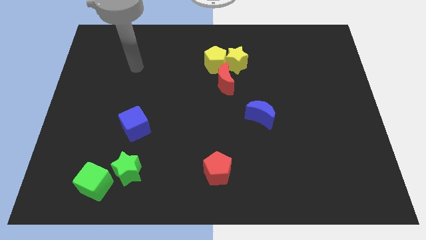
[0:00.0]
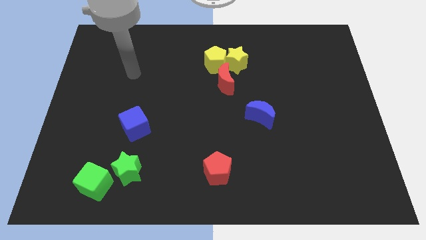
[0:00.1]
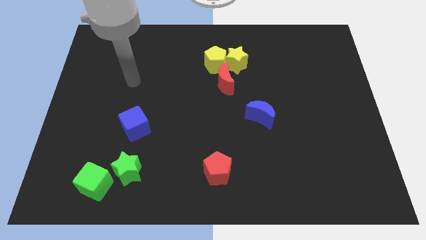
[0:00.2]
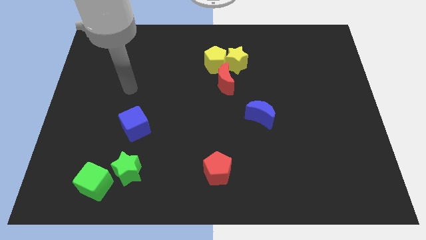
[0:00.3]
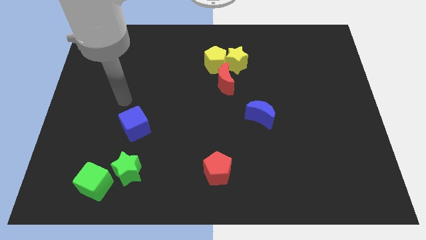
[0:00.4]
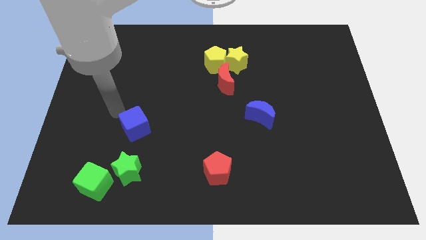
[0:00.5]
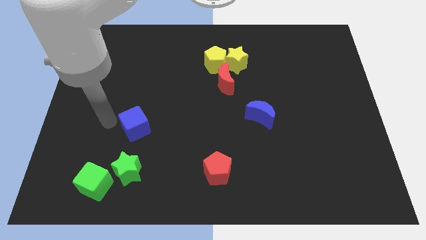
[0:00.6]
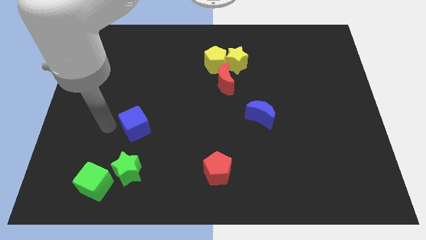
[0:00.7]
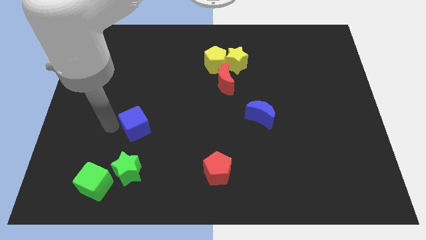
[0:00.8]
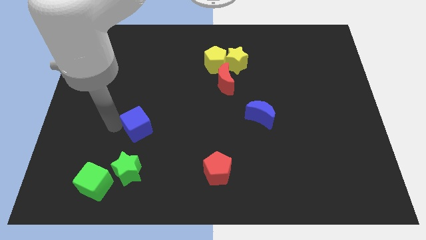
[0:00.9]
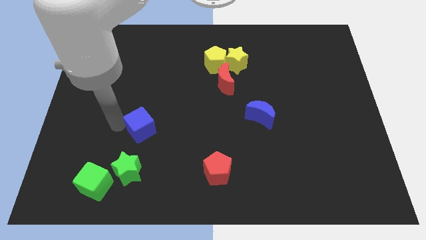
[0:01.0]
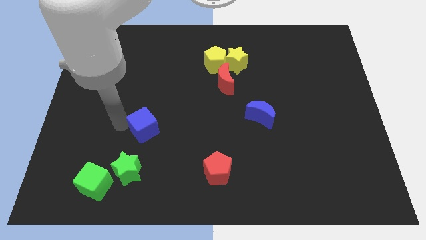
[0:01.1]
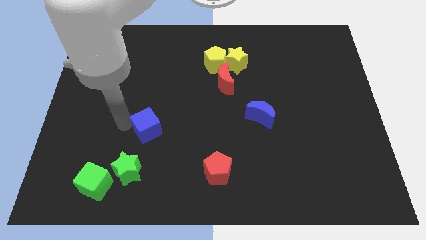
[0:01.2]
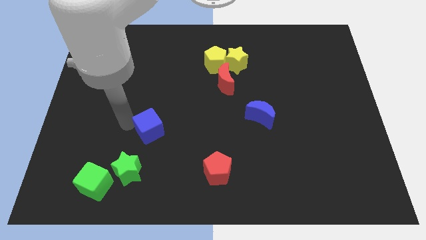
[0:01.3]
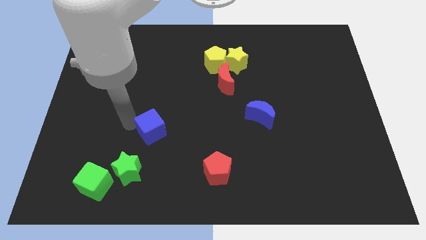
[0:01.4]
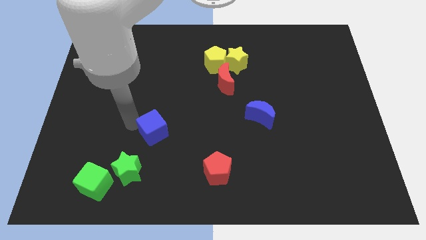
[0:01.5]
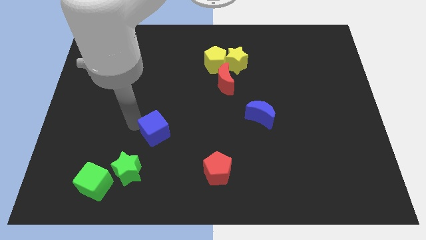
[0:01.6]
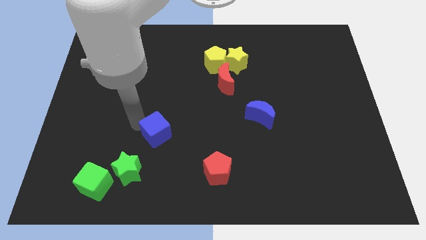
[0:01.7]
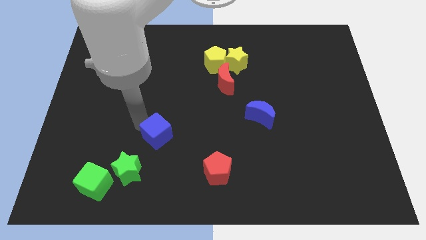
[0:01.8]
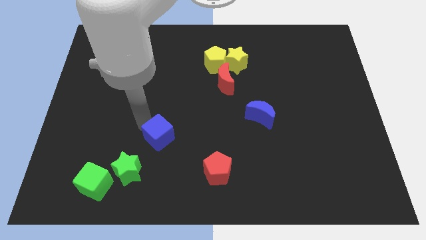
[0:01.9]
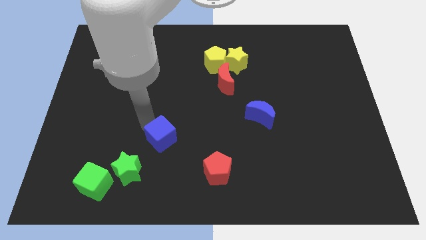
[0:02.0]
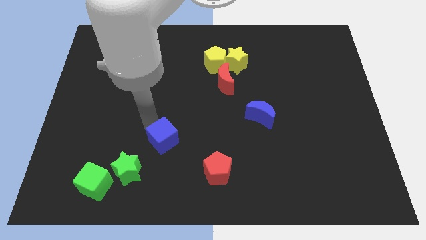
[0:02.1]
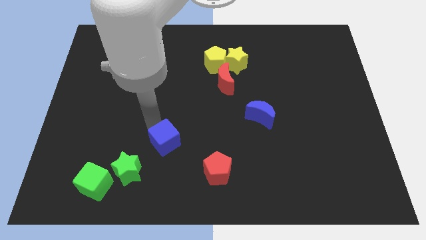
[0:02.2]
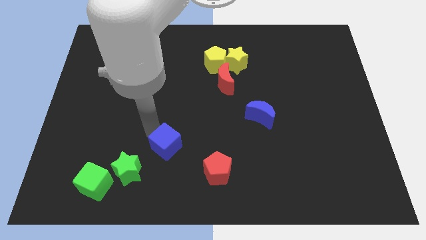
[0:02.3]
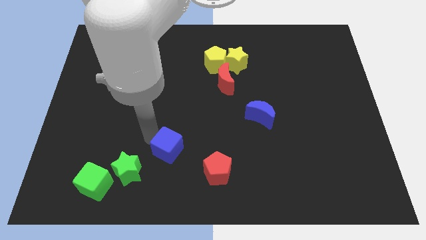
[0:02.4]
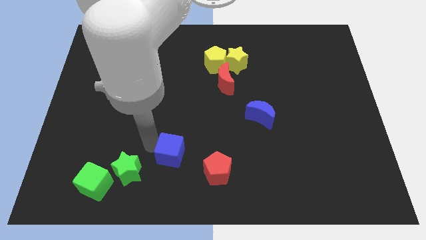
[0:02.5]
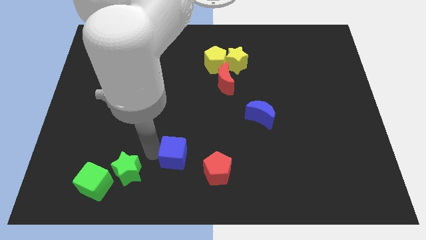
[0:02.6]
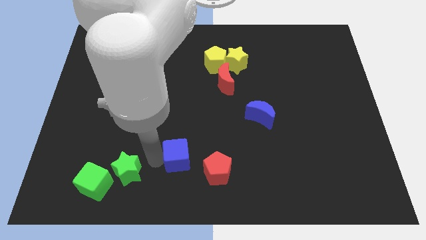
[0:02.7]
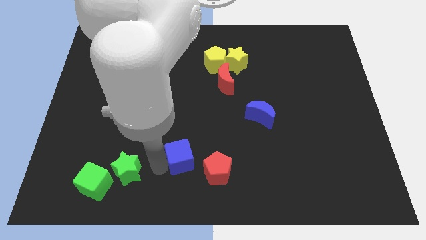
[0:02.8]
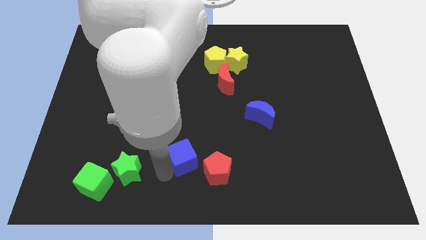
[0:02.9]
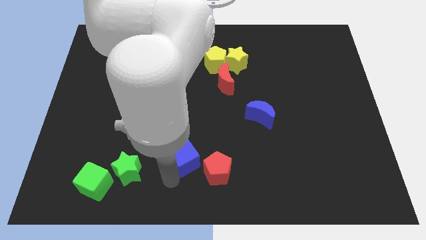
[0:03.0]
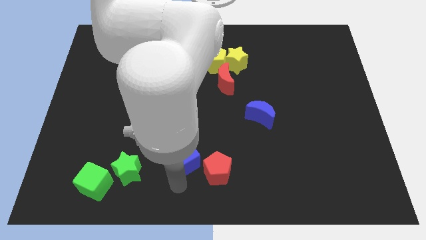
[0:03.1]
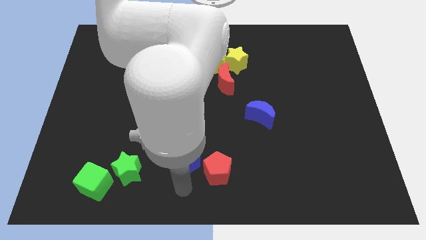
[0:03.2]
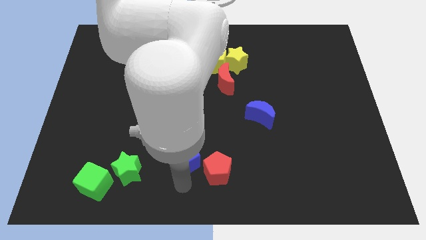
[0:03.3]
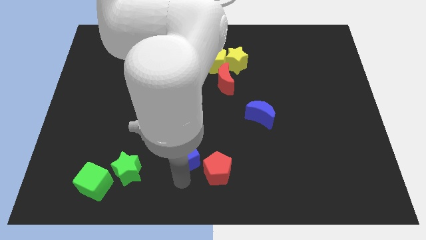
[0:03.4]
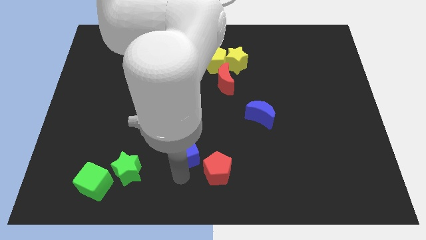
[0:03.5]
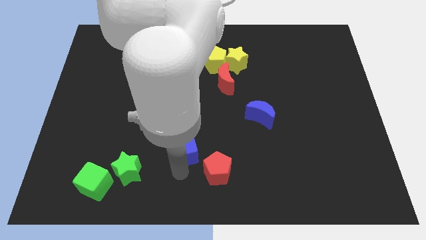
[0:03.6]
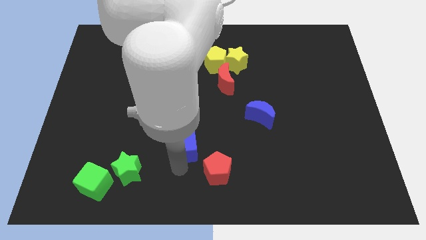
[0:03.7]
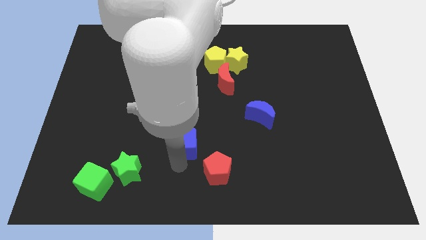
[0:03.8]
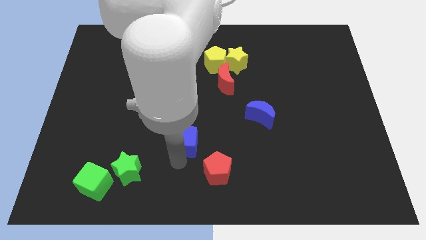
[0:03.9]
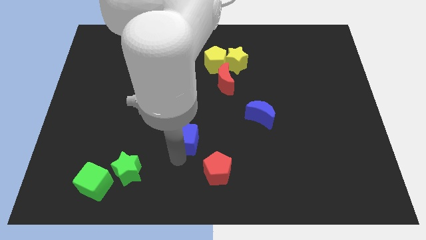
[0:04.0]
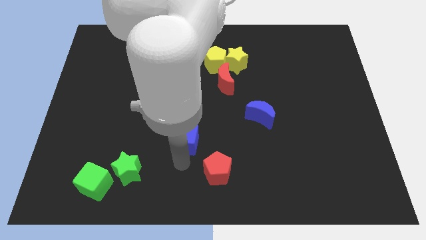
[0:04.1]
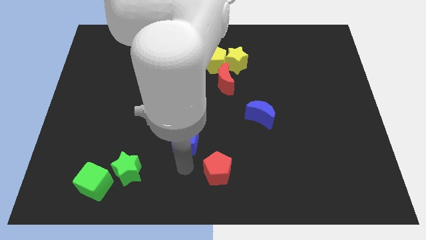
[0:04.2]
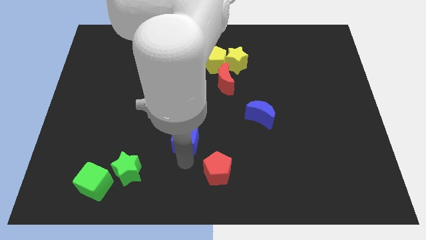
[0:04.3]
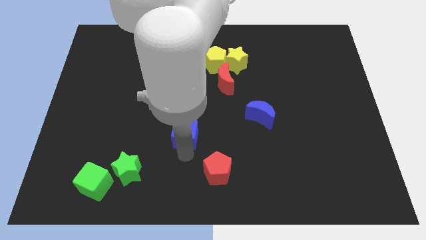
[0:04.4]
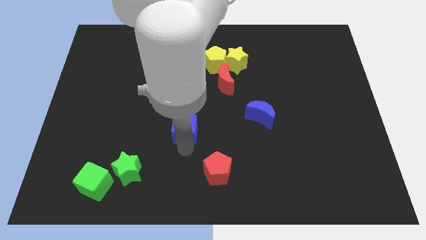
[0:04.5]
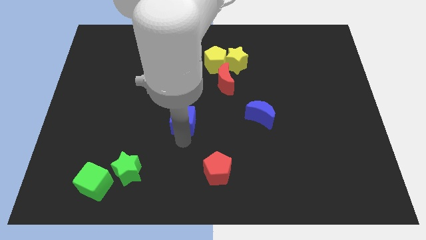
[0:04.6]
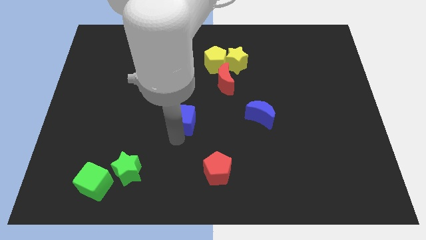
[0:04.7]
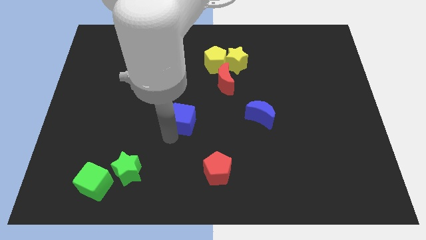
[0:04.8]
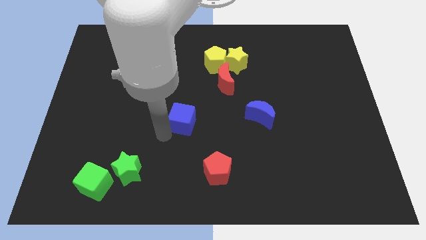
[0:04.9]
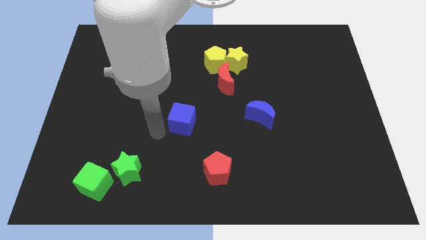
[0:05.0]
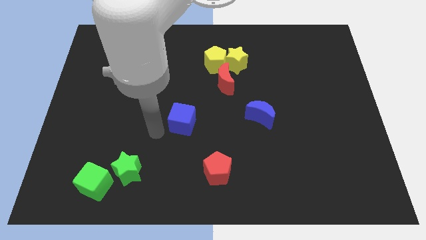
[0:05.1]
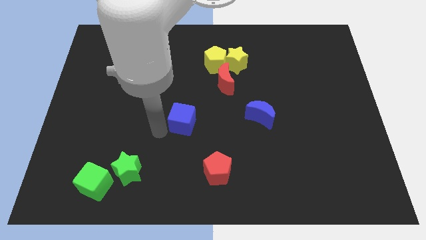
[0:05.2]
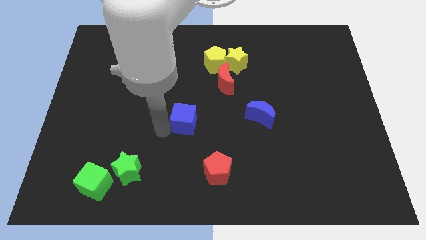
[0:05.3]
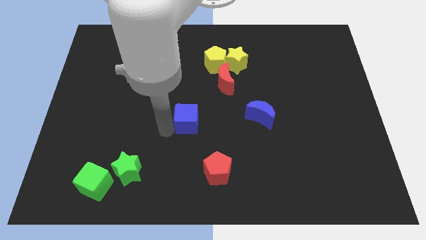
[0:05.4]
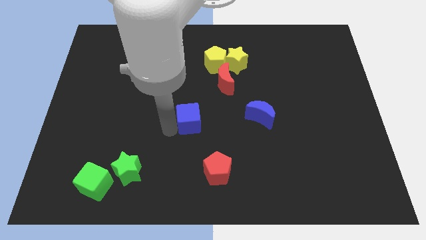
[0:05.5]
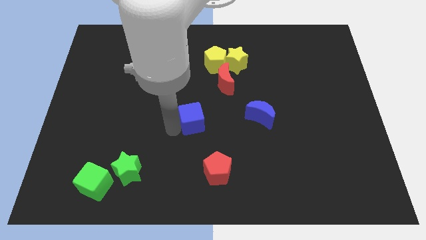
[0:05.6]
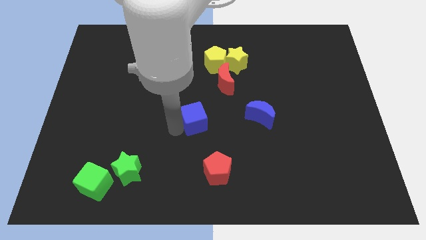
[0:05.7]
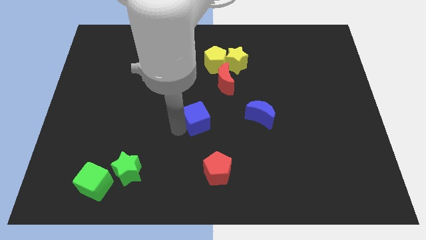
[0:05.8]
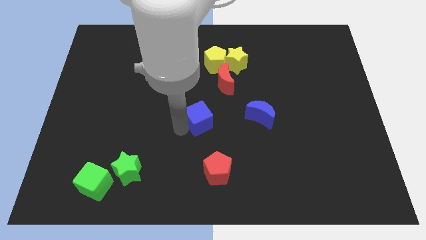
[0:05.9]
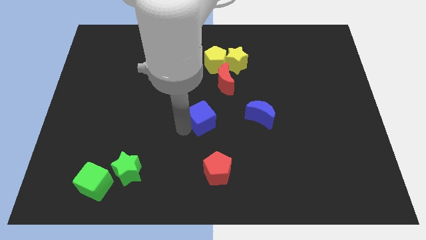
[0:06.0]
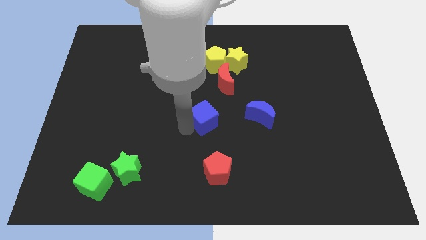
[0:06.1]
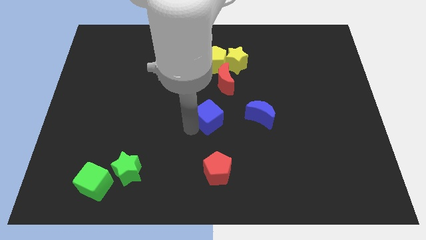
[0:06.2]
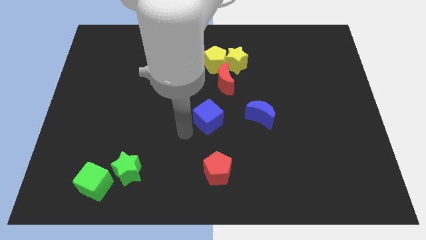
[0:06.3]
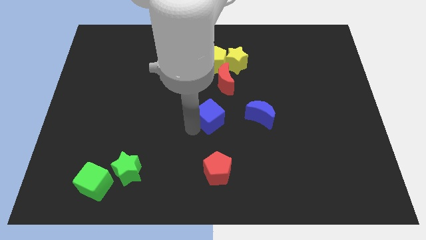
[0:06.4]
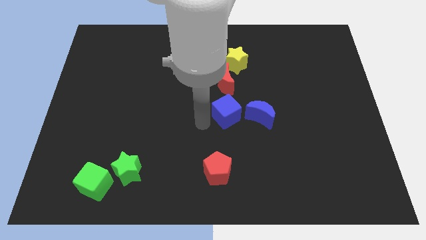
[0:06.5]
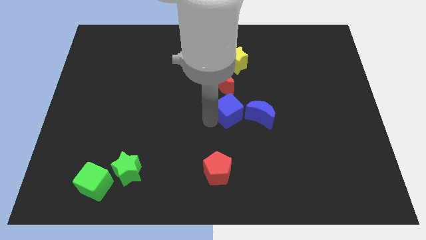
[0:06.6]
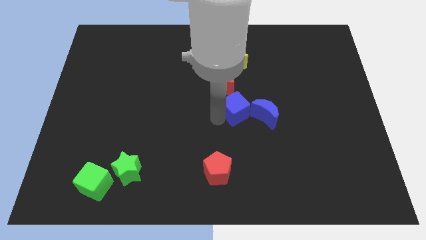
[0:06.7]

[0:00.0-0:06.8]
put the blue cube to the bottom right side of the red moon
